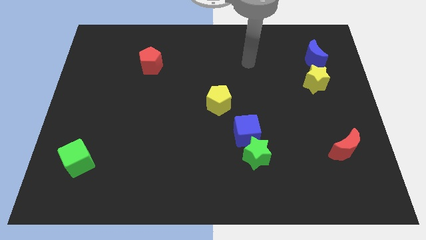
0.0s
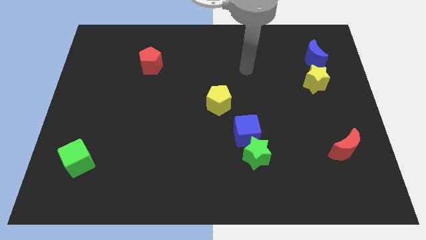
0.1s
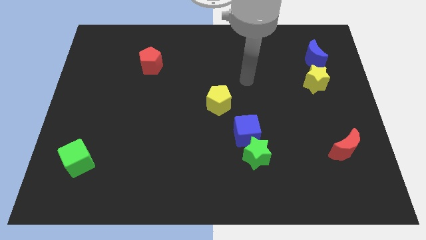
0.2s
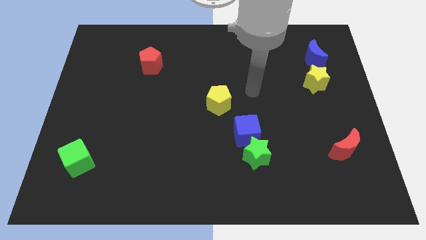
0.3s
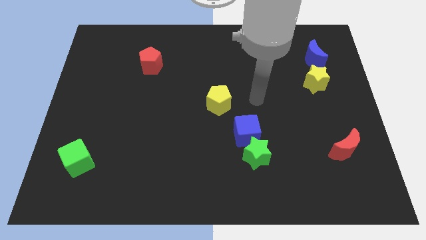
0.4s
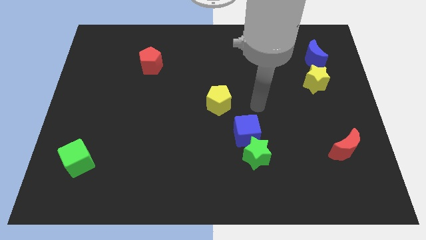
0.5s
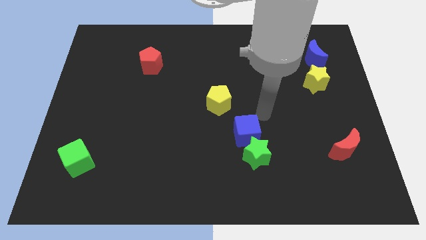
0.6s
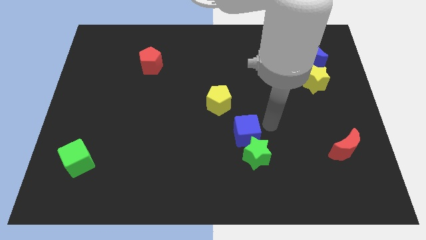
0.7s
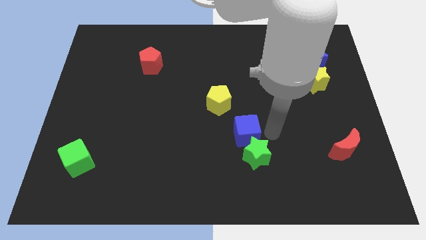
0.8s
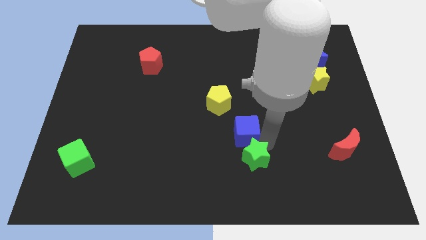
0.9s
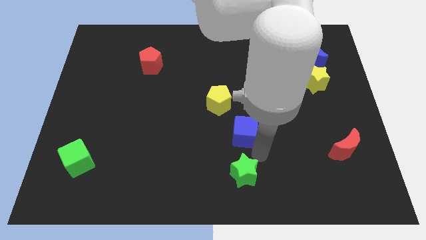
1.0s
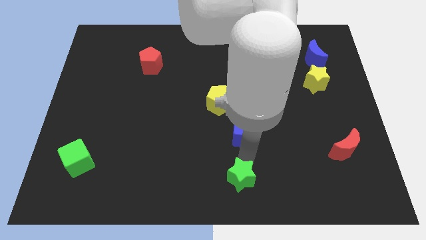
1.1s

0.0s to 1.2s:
separate the blue cube from the green star

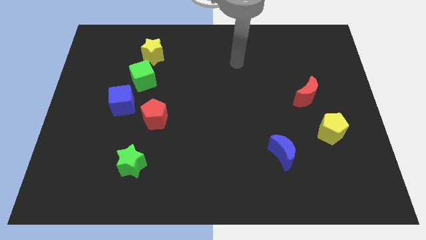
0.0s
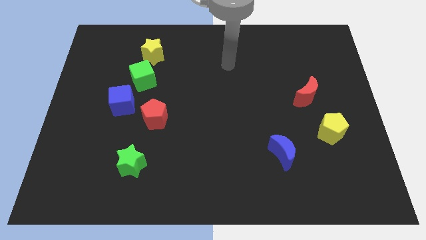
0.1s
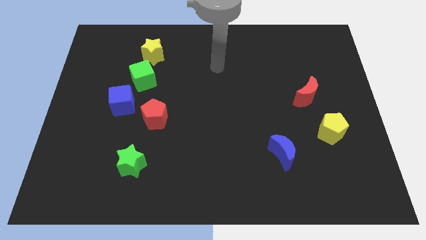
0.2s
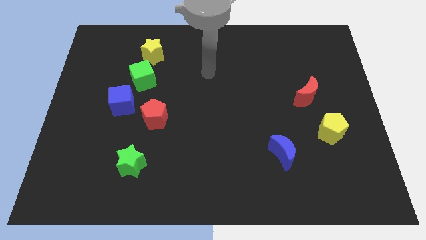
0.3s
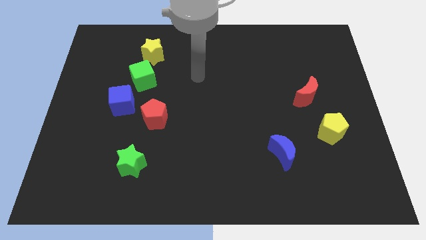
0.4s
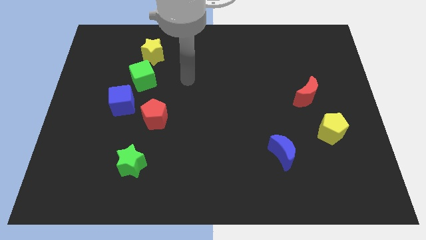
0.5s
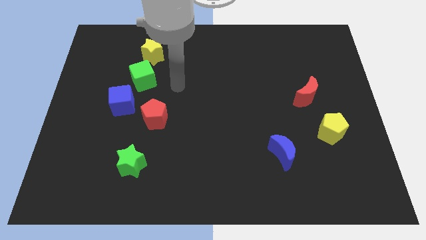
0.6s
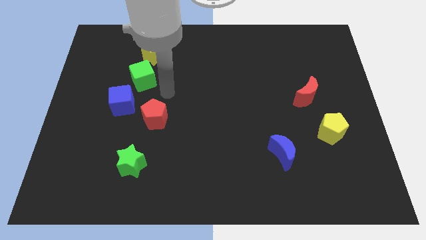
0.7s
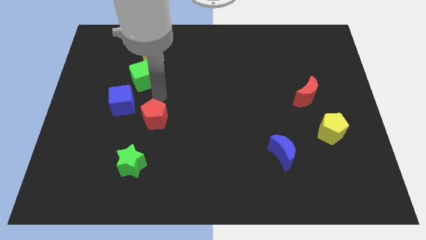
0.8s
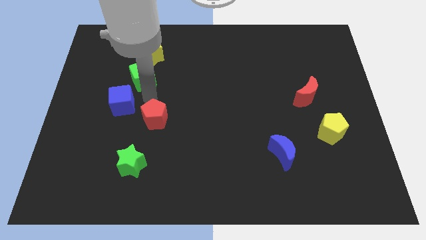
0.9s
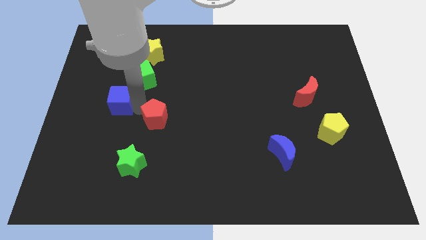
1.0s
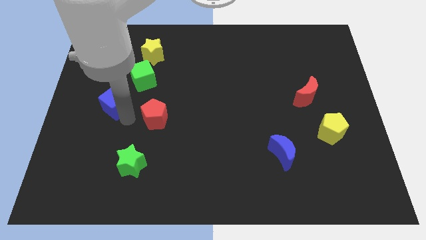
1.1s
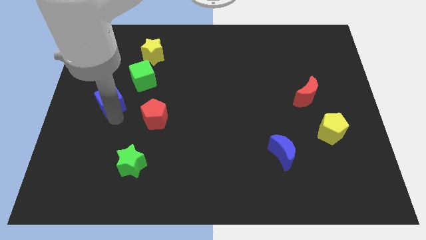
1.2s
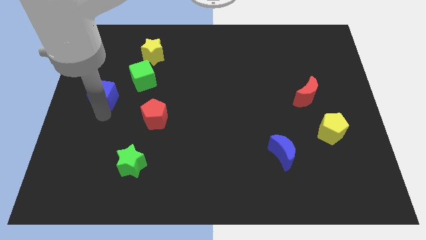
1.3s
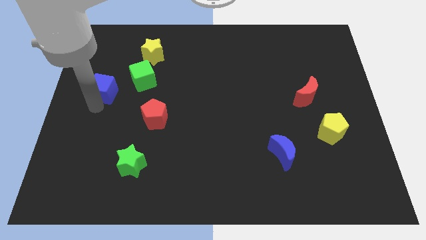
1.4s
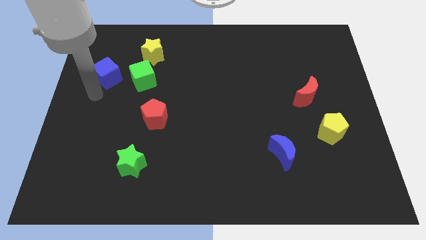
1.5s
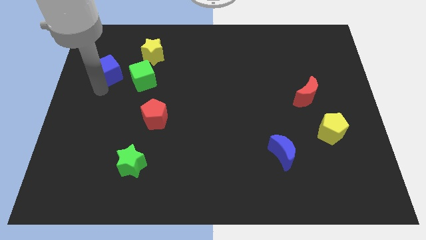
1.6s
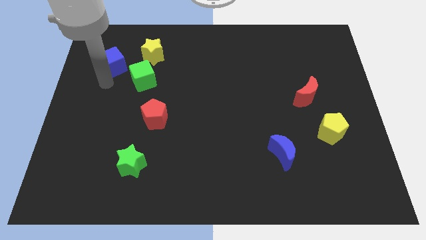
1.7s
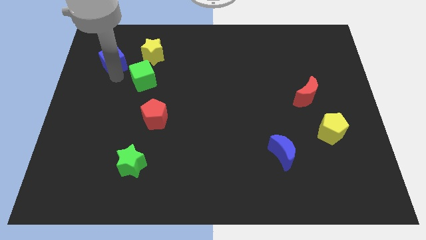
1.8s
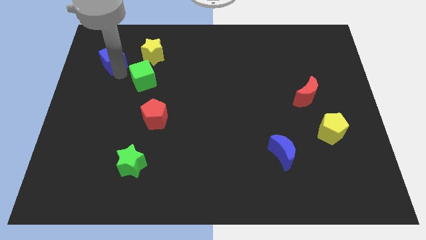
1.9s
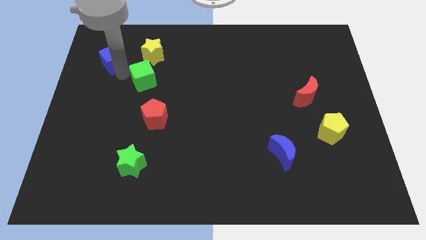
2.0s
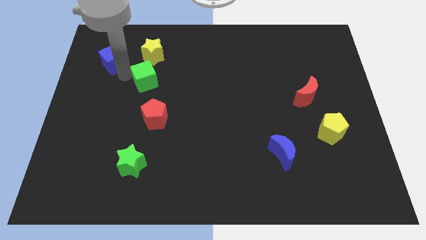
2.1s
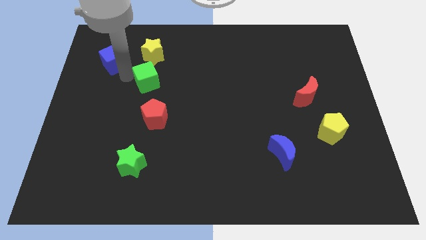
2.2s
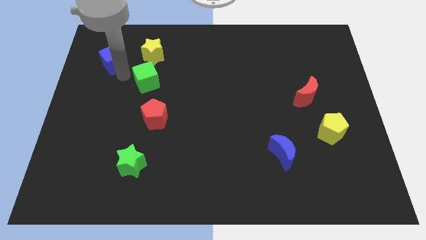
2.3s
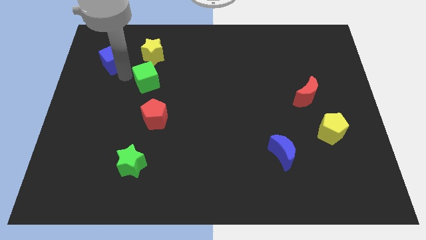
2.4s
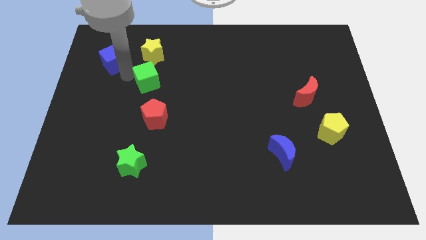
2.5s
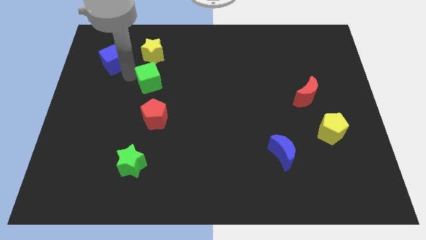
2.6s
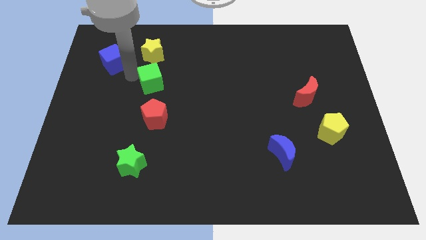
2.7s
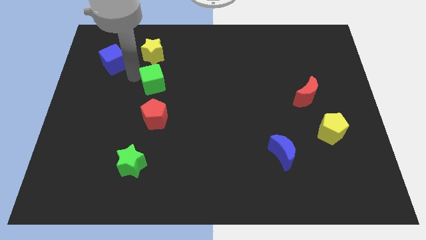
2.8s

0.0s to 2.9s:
move the green cube away from the blue cube and yellow star

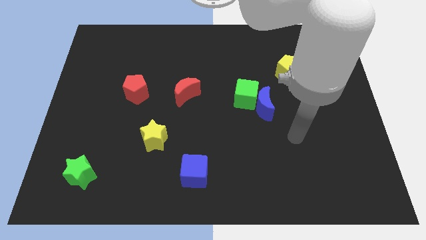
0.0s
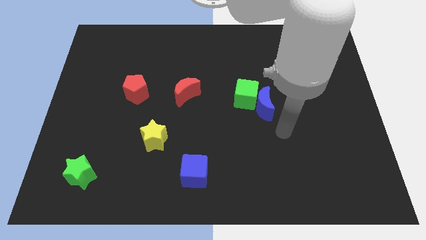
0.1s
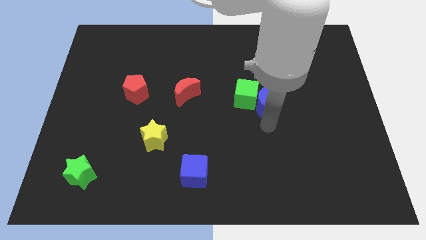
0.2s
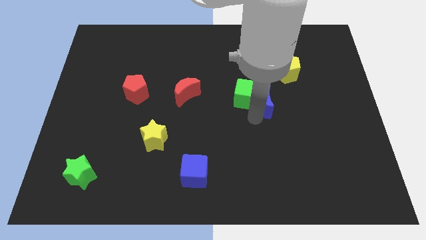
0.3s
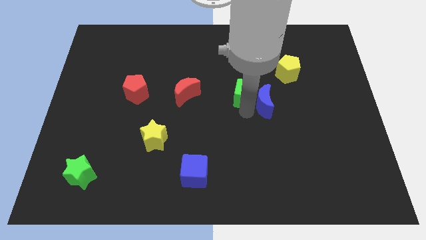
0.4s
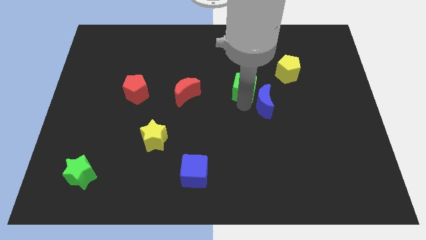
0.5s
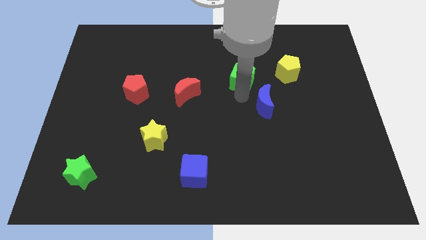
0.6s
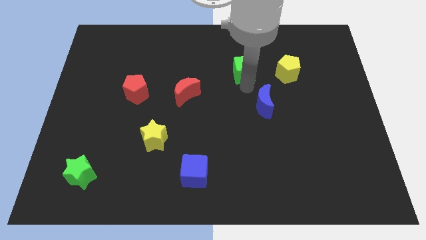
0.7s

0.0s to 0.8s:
separate the blue moon from the green cube

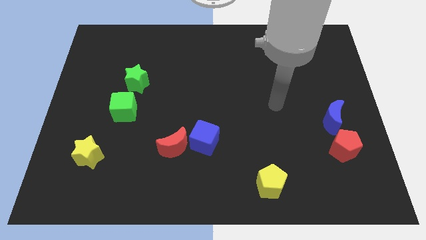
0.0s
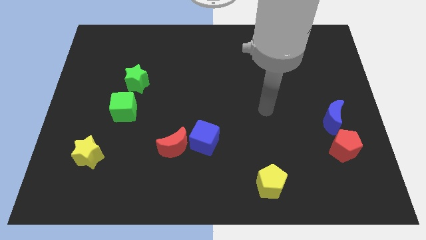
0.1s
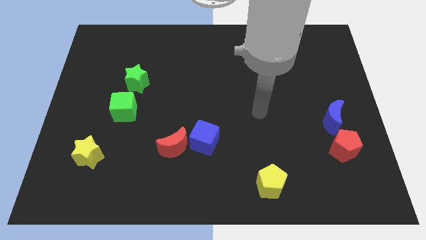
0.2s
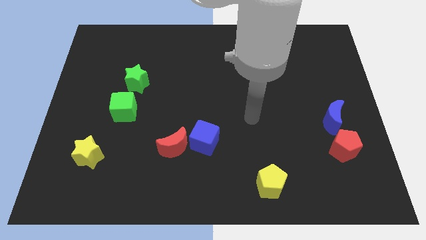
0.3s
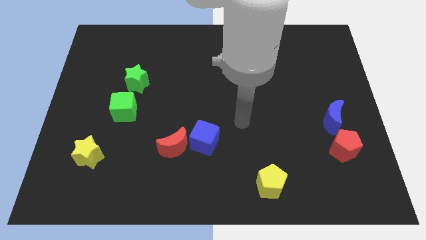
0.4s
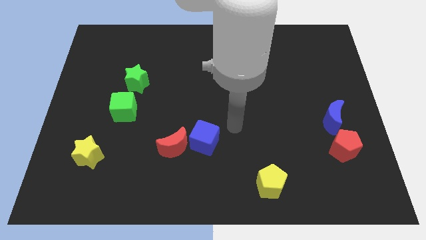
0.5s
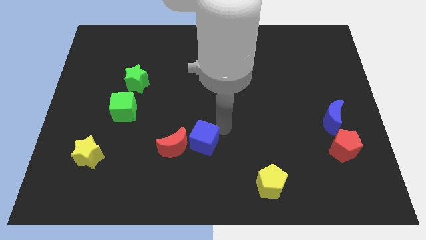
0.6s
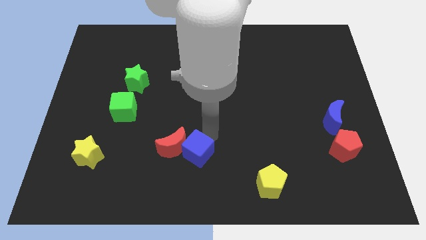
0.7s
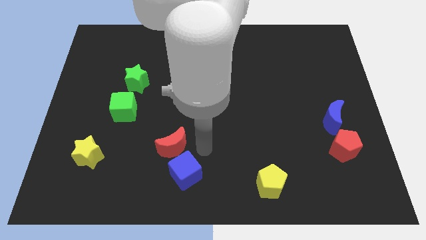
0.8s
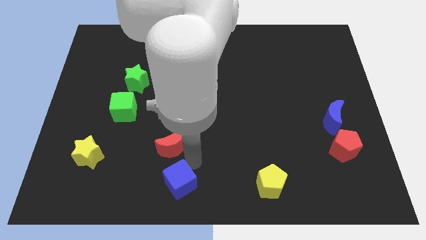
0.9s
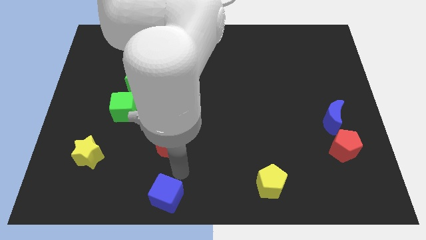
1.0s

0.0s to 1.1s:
pull the red moon apart from the blue cube

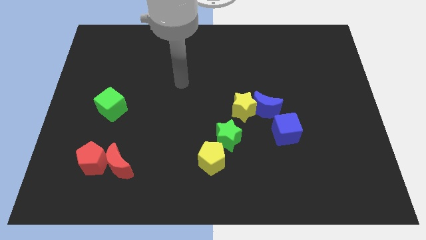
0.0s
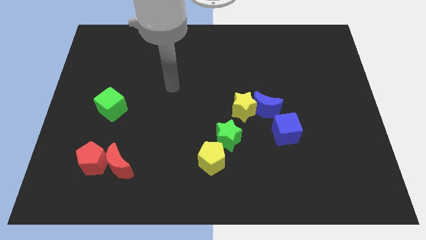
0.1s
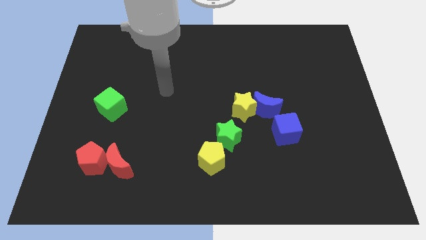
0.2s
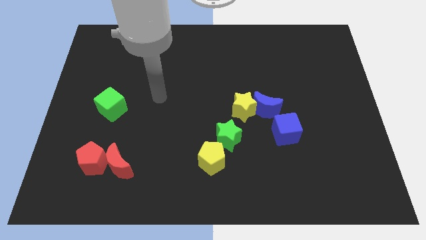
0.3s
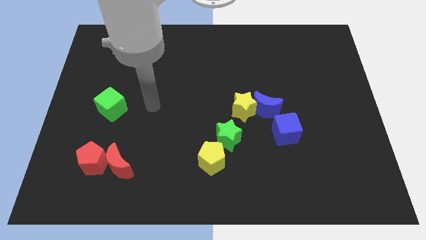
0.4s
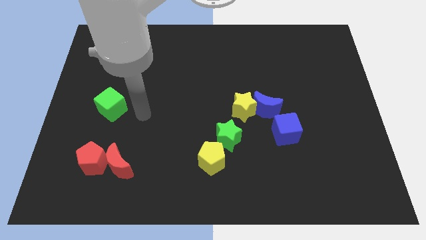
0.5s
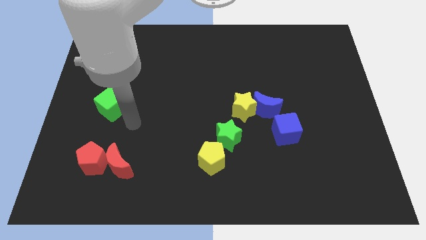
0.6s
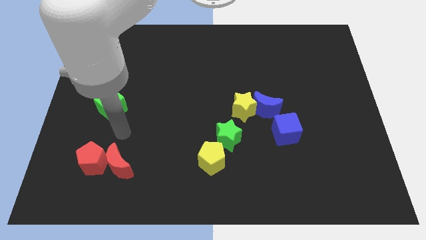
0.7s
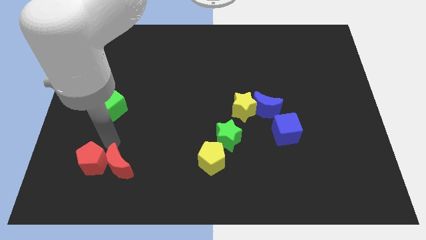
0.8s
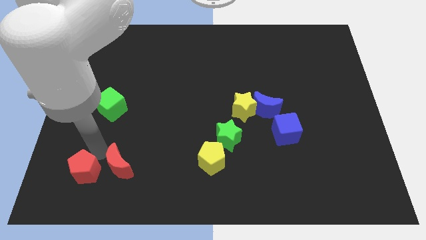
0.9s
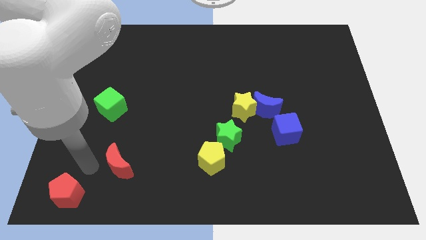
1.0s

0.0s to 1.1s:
move the red moon away from the red pentagon

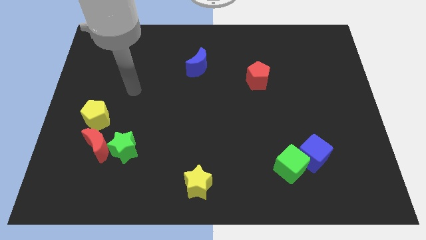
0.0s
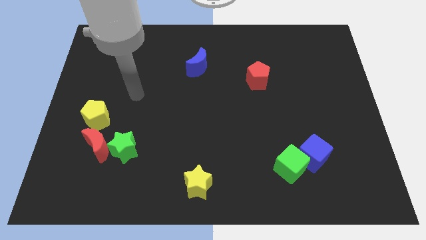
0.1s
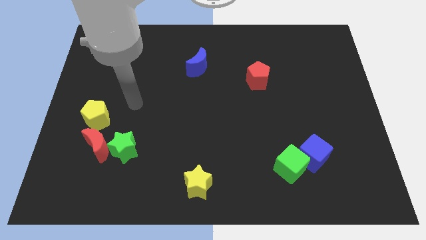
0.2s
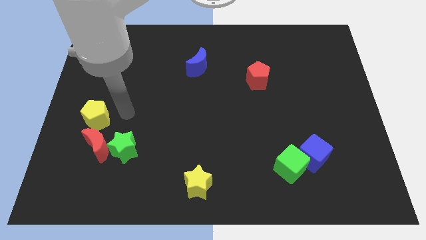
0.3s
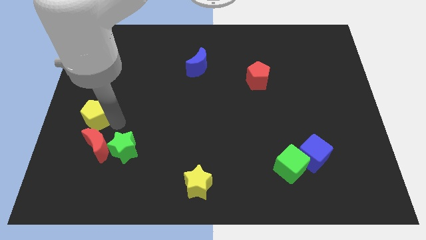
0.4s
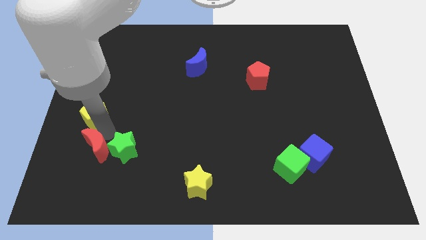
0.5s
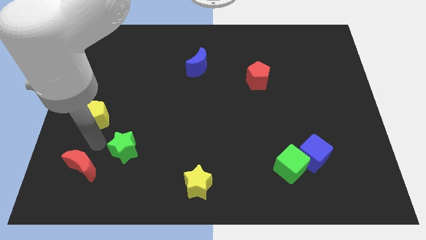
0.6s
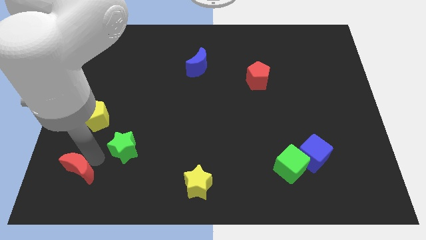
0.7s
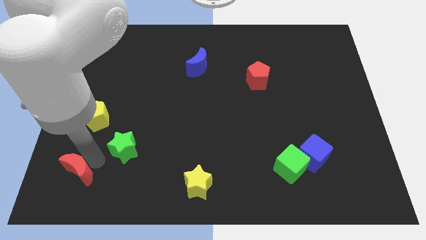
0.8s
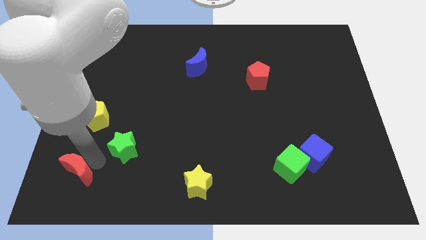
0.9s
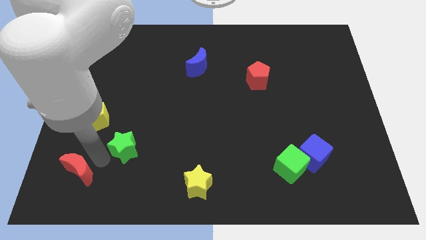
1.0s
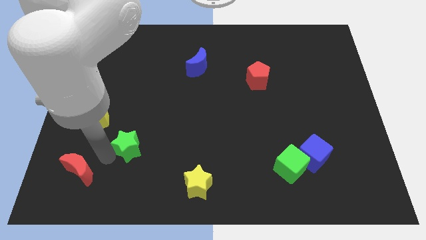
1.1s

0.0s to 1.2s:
pull the green star apart from the red moon

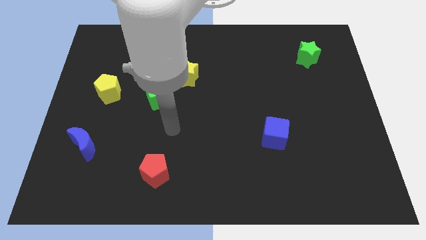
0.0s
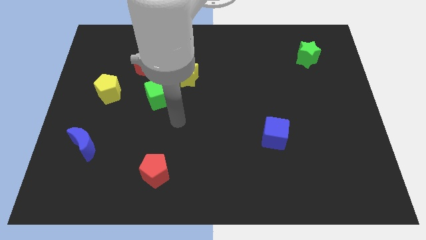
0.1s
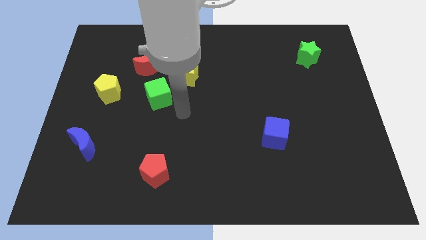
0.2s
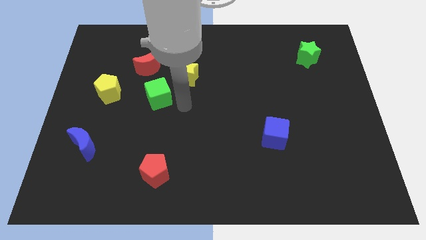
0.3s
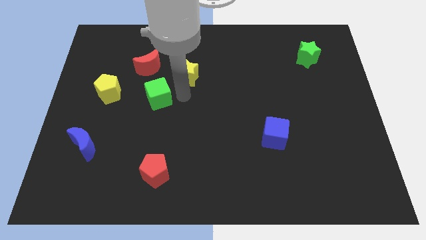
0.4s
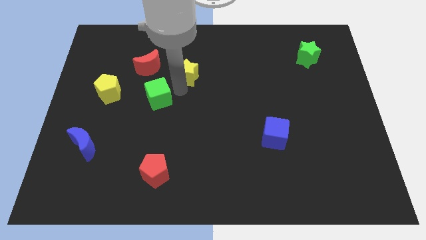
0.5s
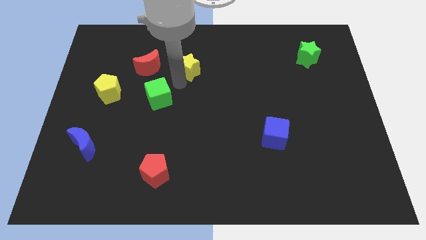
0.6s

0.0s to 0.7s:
separate the green cube from the yellow star

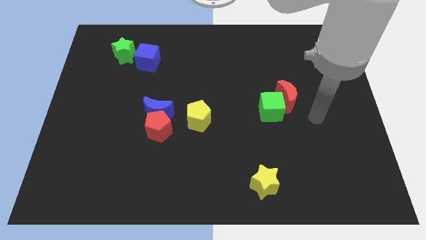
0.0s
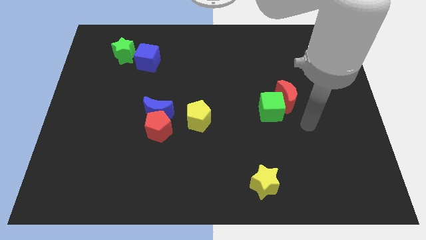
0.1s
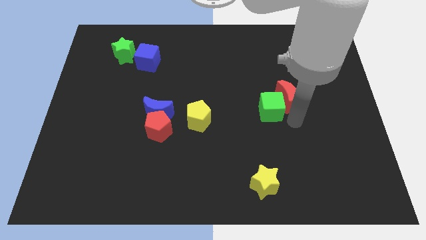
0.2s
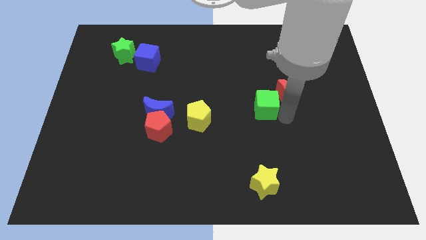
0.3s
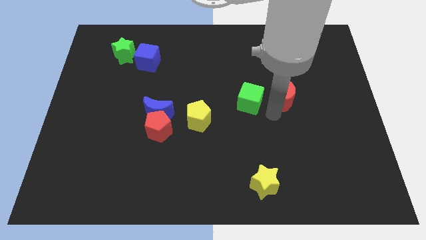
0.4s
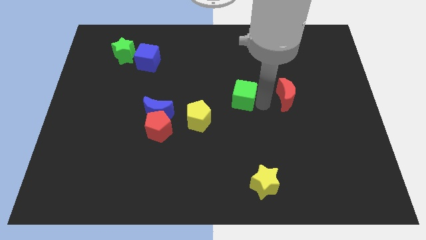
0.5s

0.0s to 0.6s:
move the red moon away from the green cube
